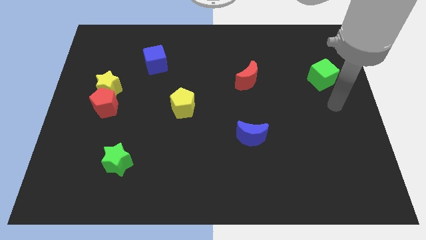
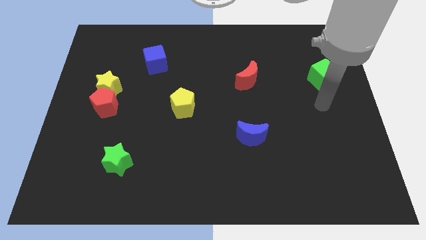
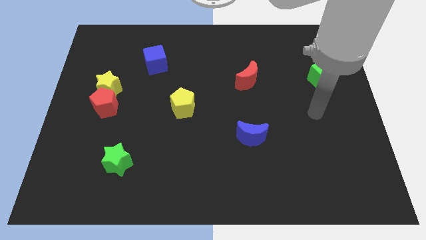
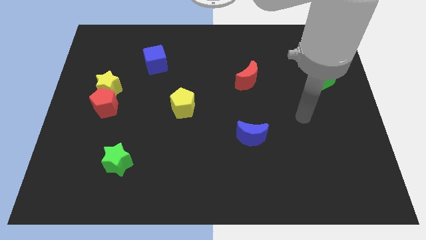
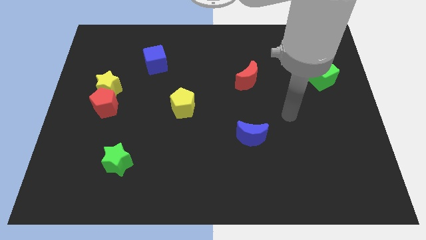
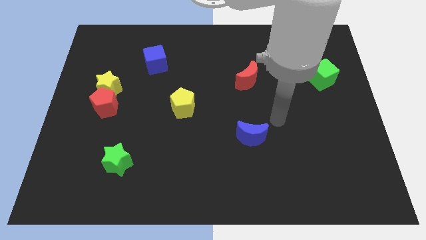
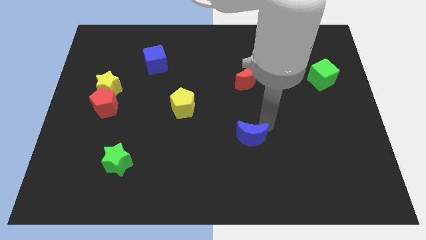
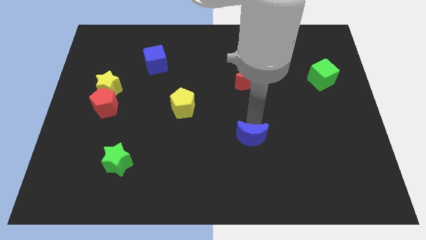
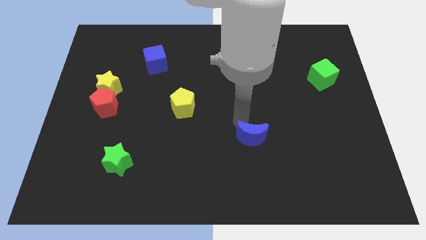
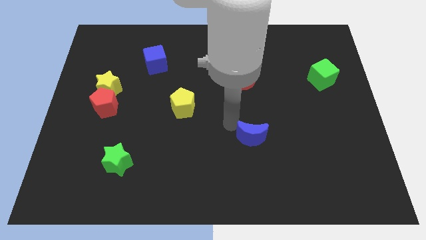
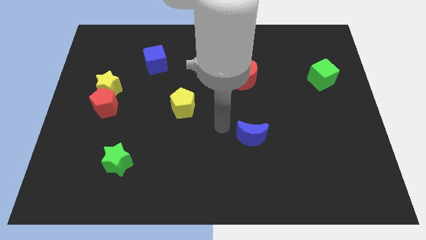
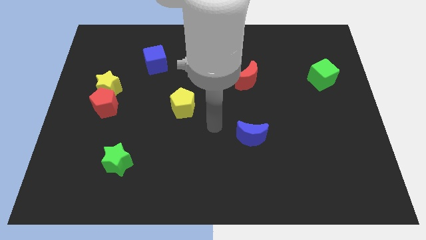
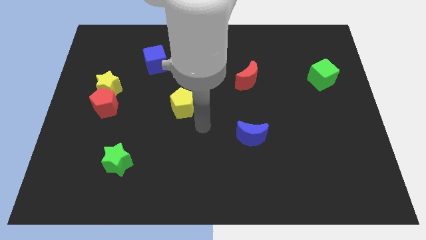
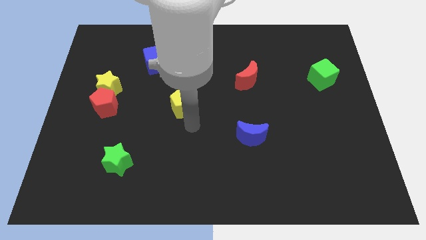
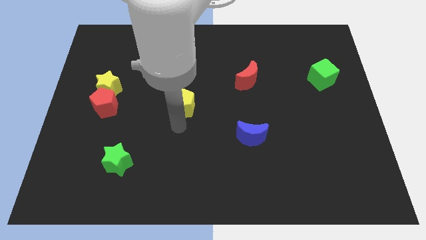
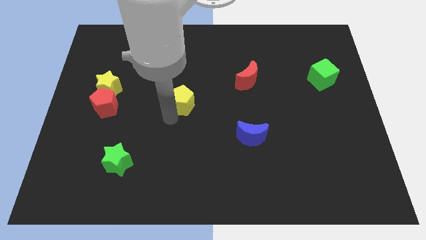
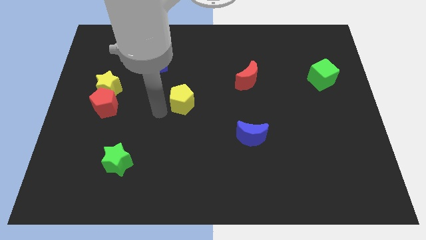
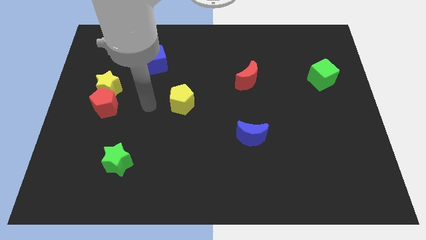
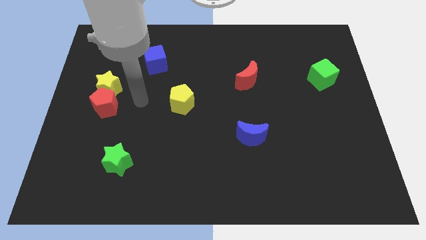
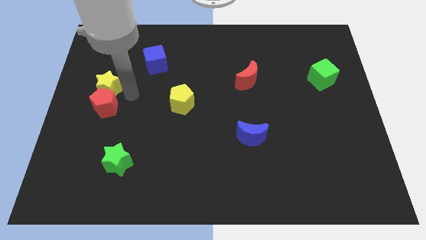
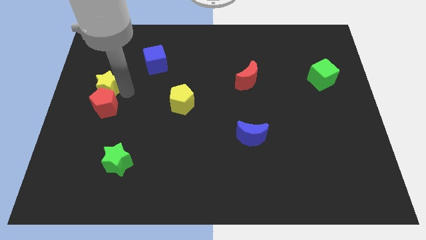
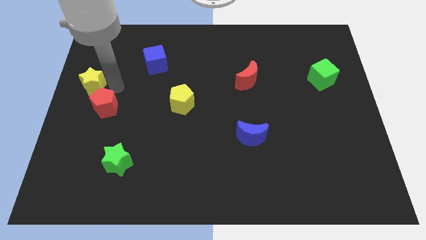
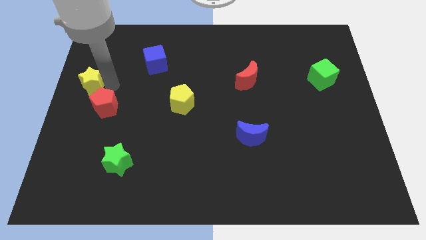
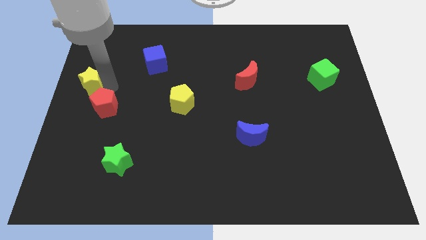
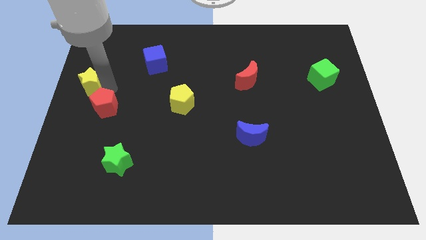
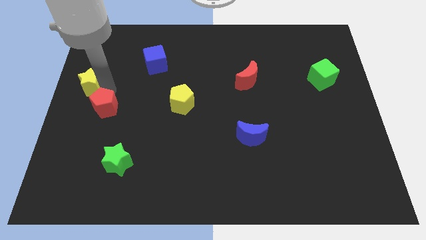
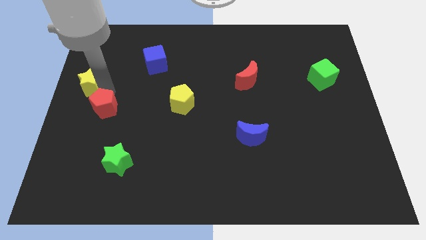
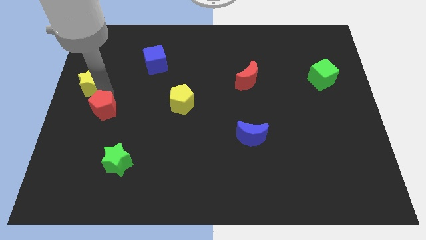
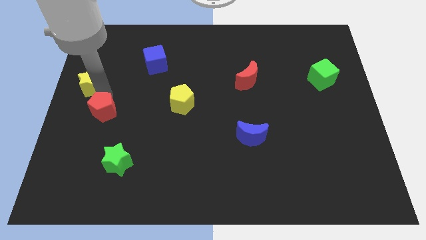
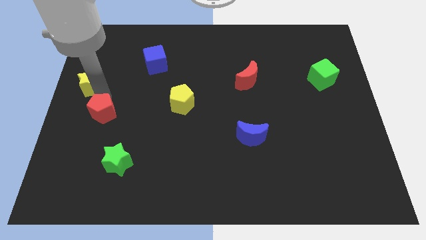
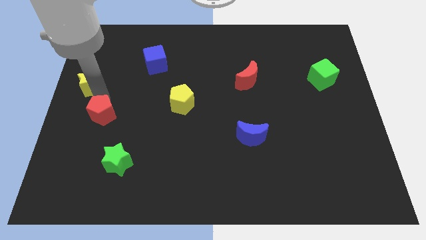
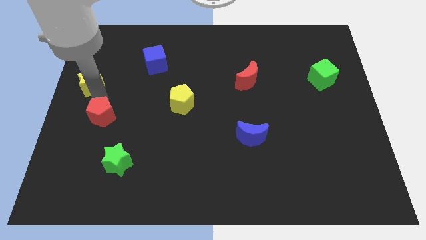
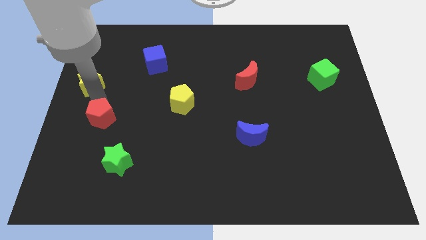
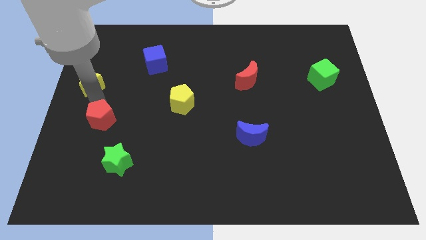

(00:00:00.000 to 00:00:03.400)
pull the red pentagon apart from the yellow star

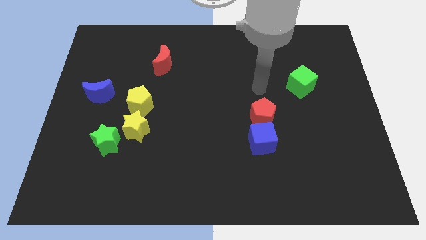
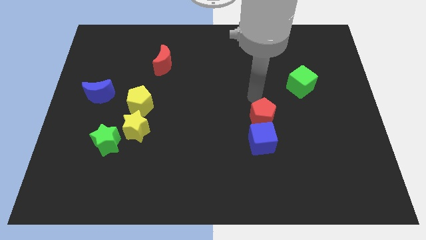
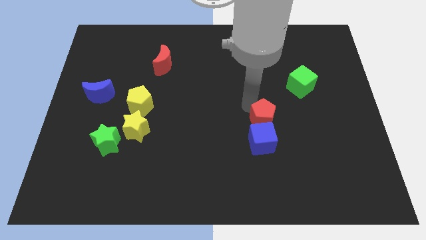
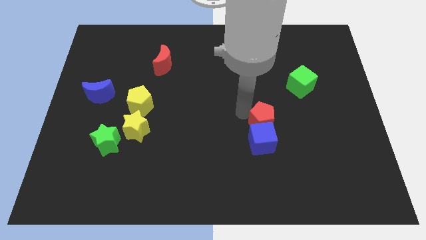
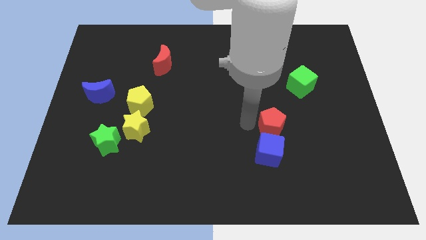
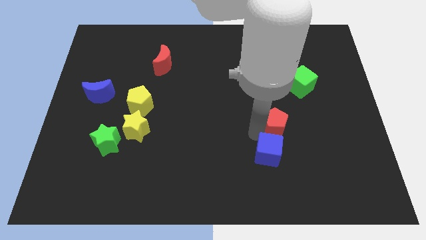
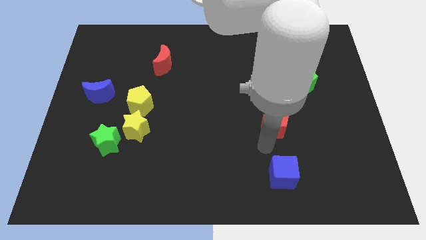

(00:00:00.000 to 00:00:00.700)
move the red pentagon away from the blue cube

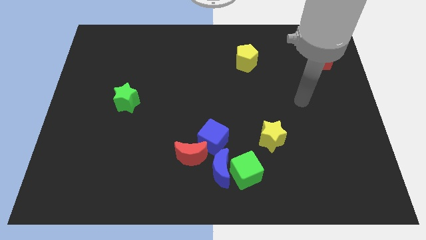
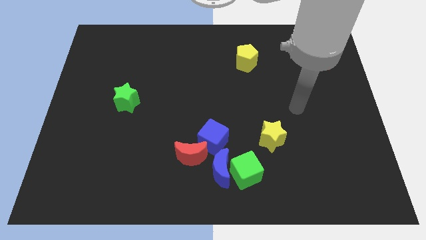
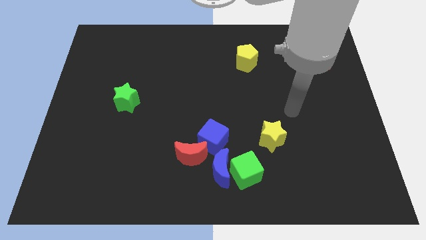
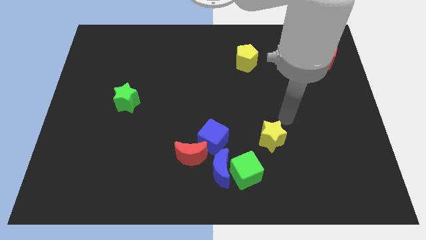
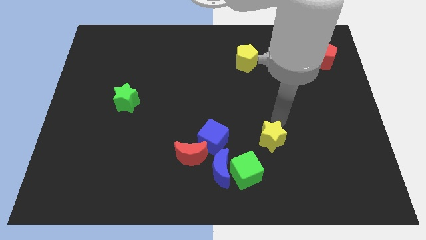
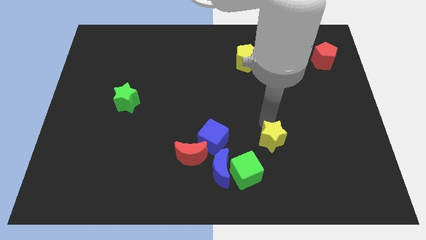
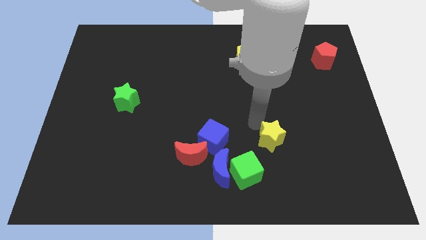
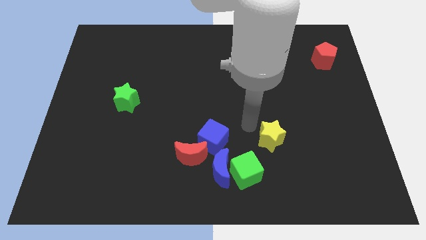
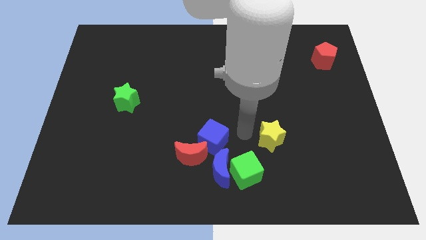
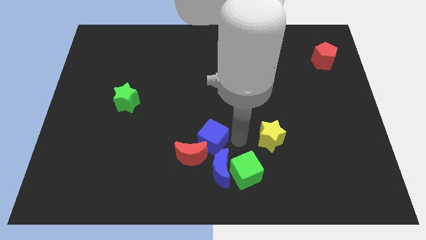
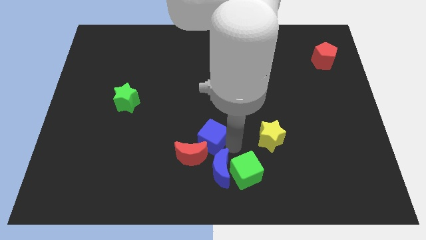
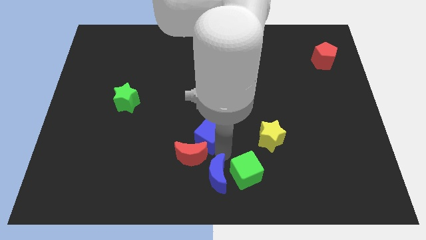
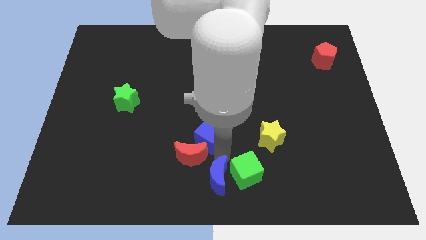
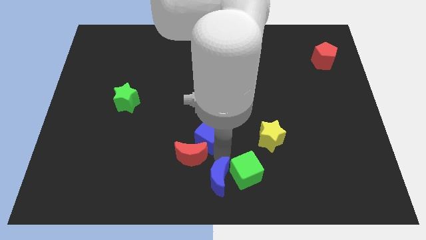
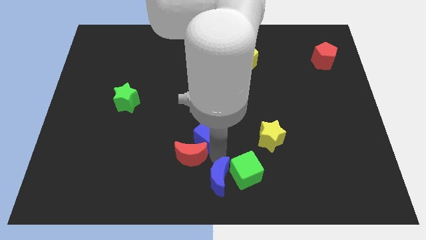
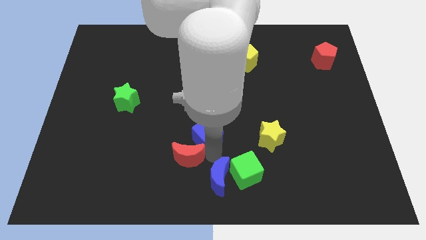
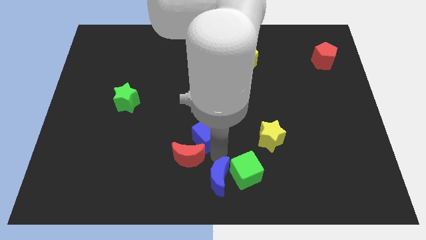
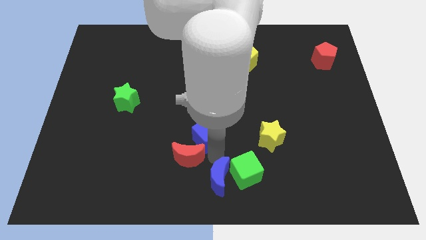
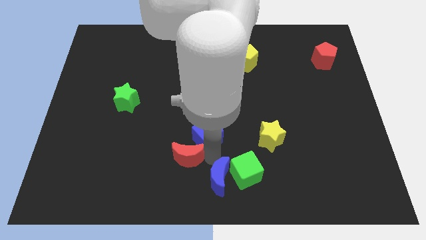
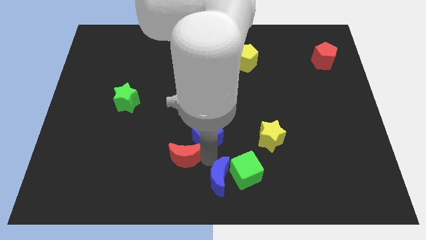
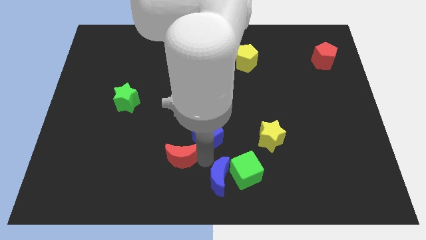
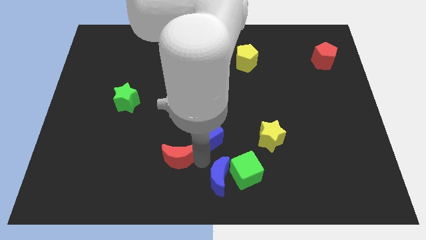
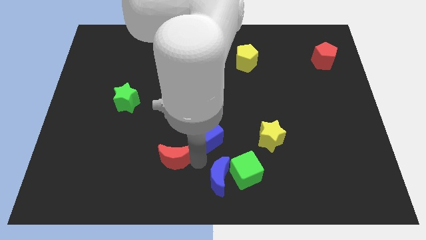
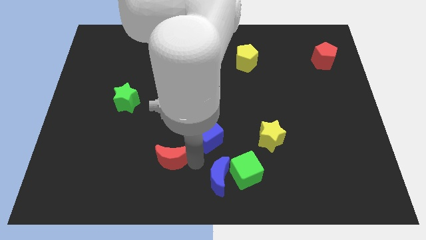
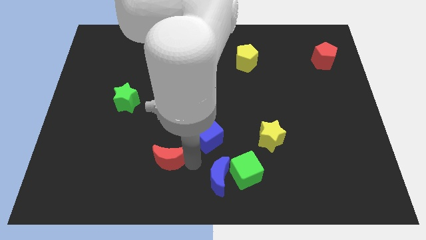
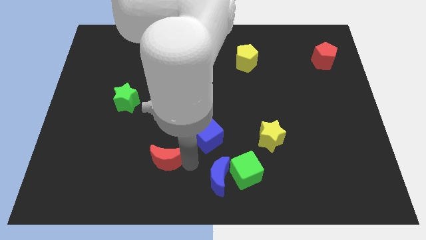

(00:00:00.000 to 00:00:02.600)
pull the red moon apart from the blue cube and blue moon

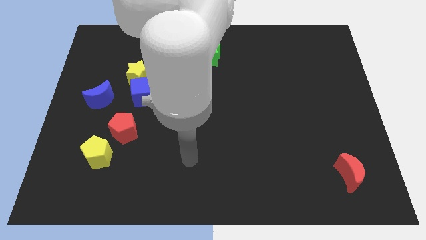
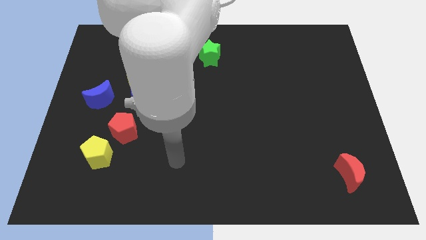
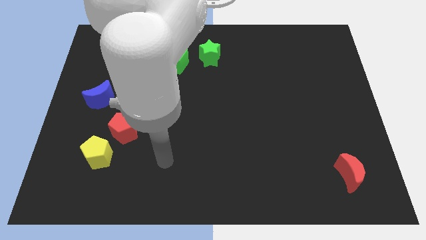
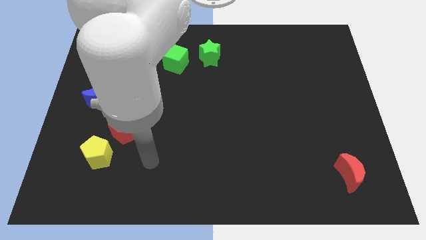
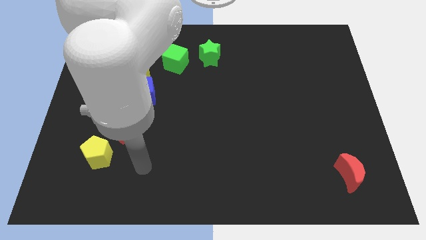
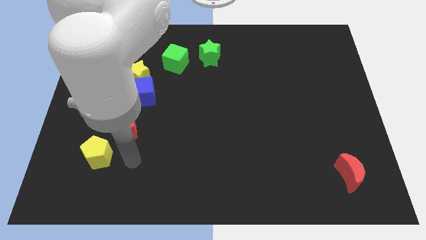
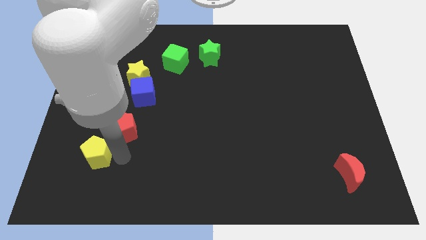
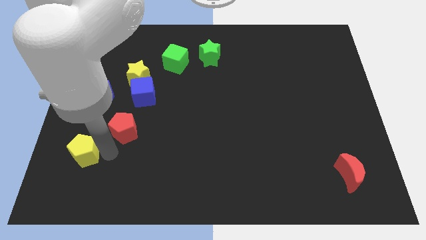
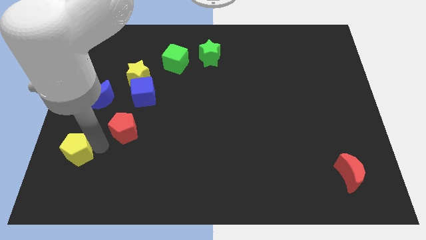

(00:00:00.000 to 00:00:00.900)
separate the red pentagon from the yellow pentagon

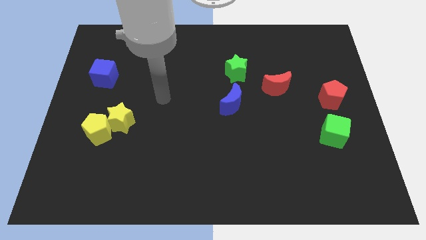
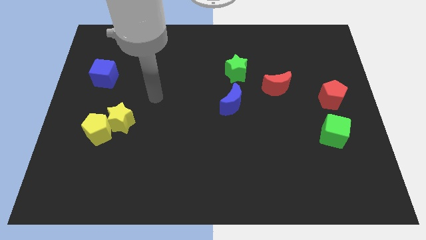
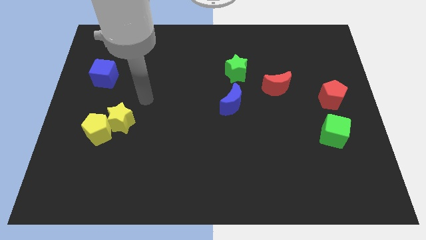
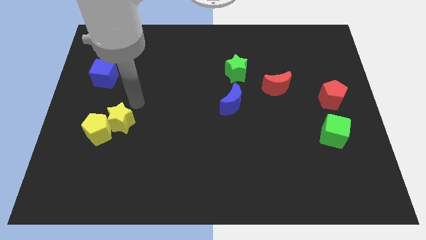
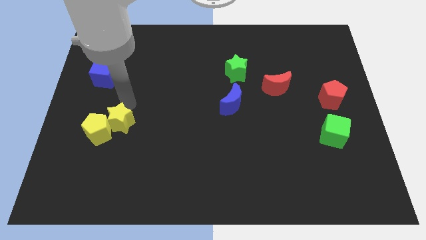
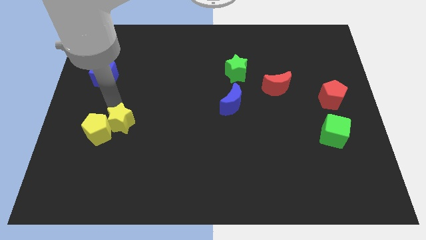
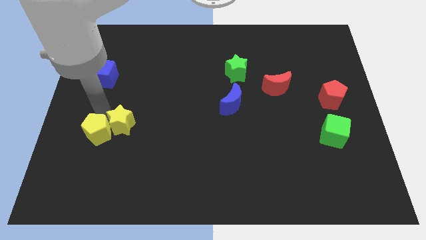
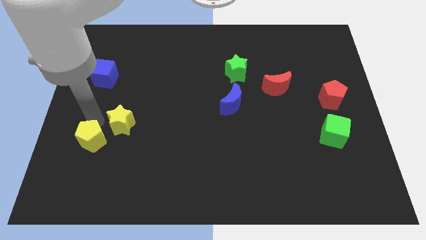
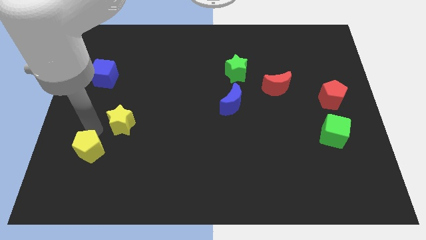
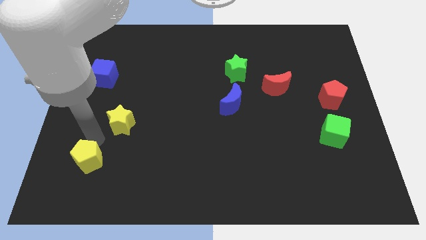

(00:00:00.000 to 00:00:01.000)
move the yellow star away from the yellow pentagon

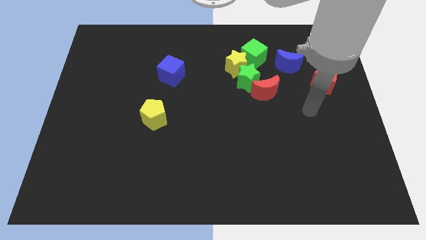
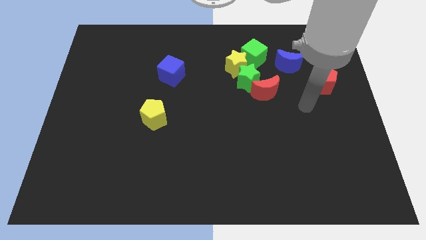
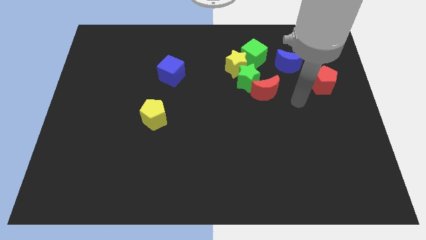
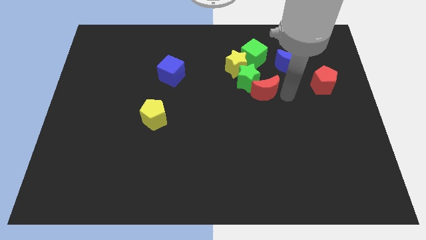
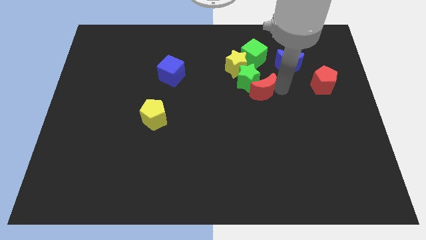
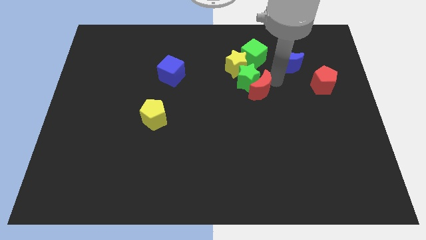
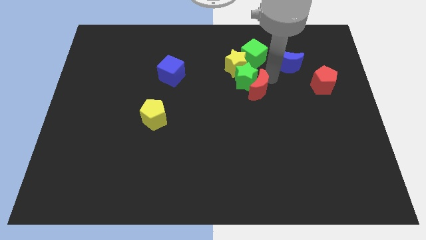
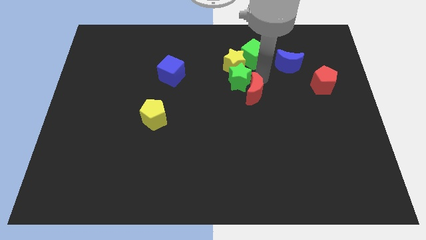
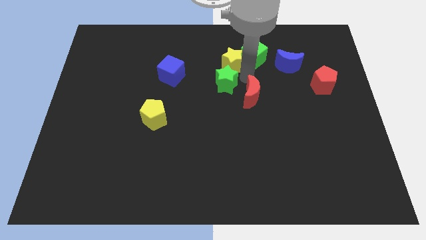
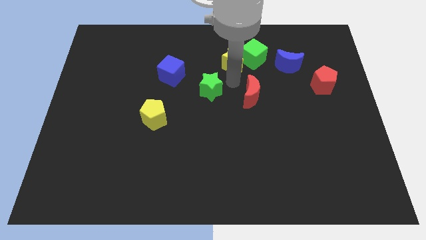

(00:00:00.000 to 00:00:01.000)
move the red moon away from the green star
